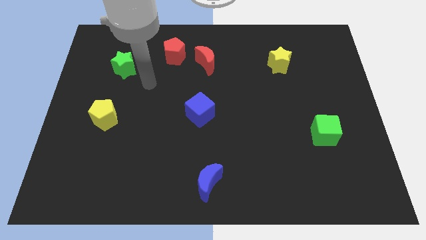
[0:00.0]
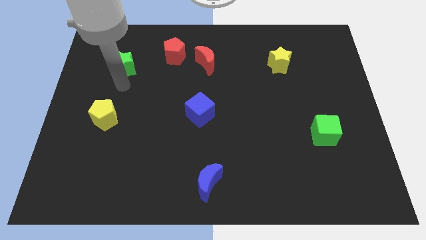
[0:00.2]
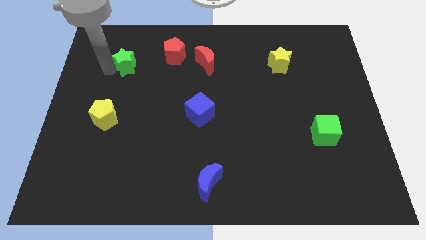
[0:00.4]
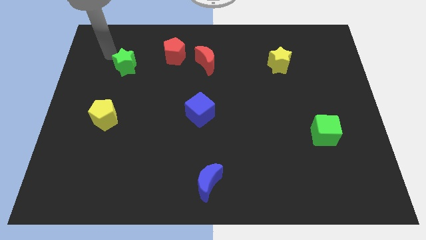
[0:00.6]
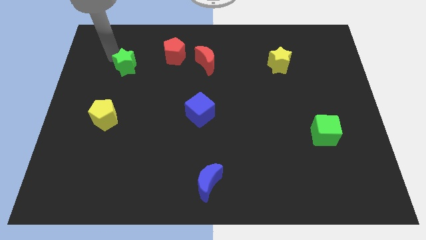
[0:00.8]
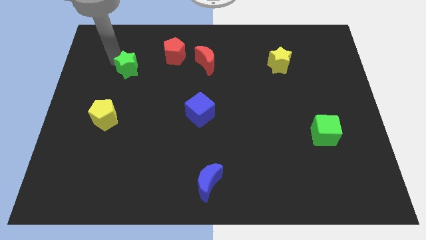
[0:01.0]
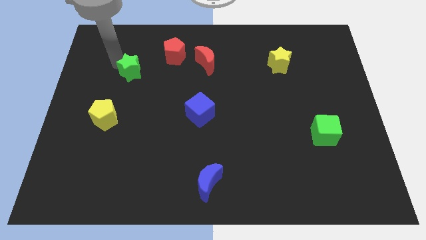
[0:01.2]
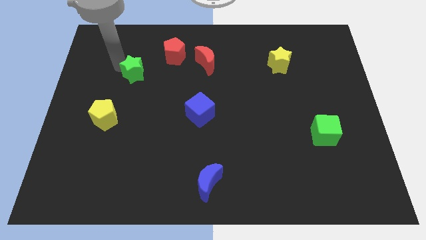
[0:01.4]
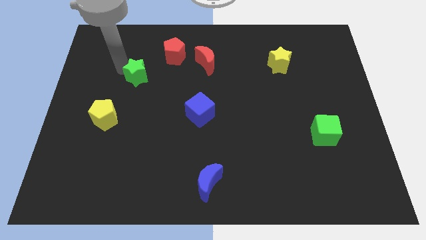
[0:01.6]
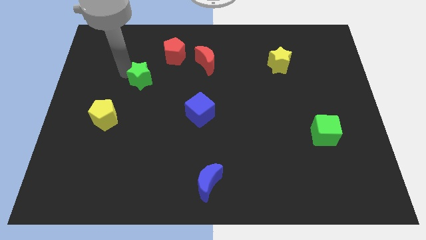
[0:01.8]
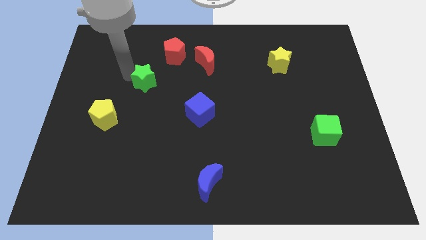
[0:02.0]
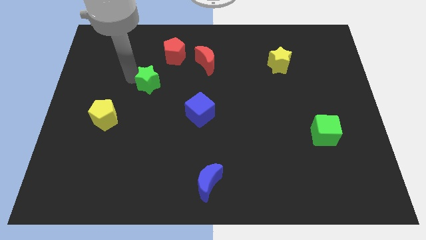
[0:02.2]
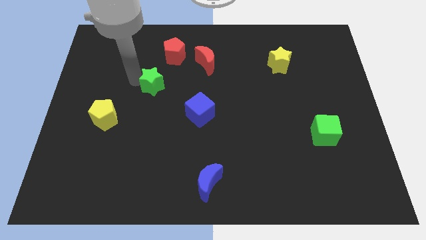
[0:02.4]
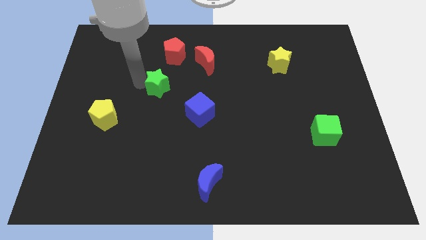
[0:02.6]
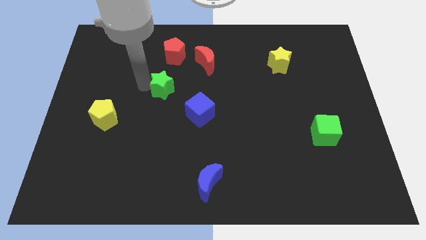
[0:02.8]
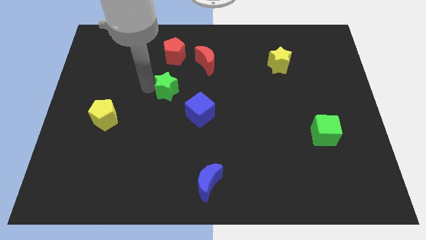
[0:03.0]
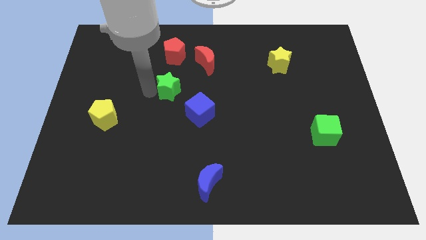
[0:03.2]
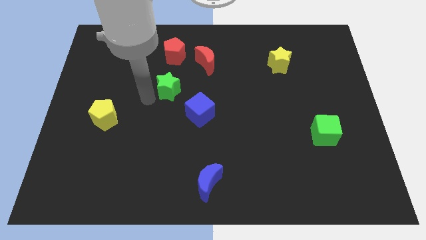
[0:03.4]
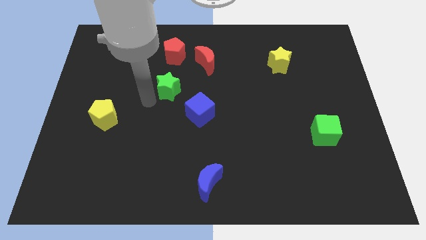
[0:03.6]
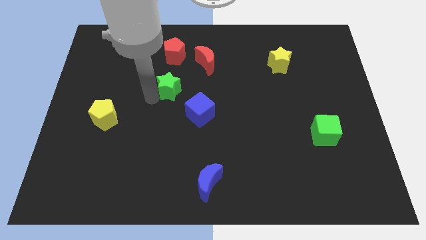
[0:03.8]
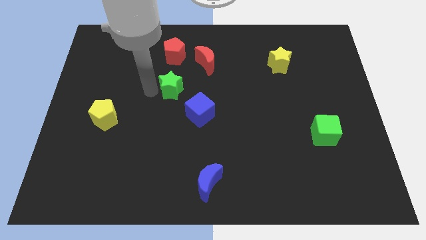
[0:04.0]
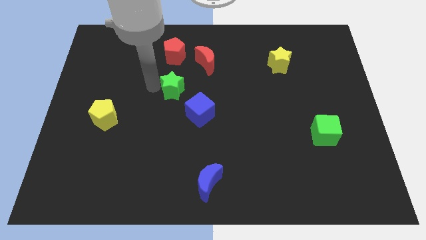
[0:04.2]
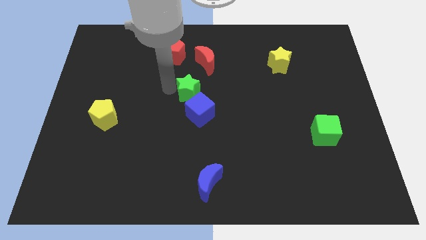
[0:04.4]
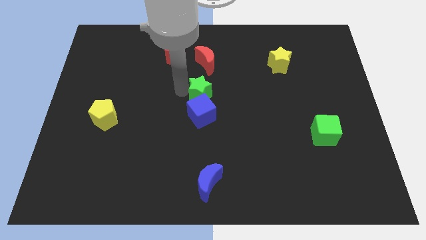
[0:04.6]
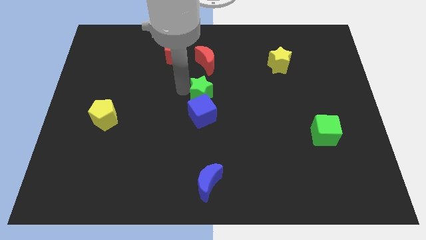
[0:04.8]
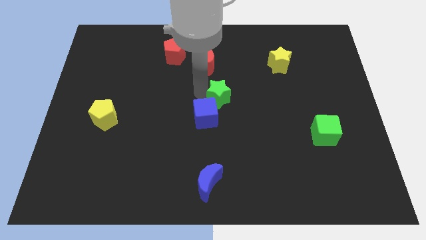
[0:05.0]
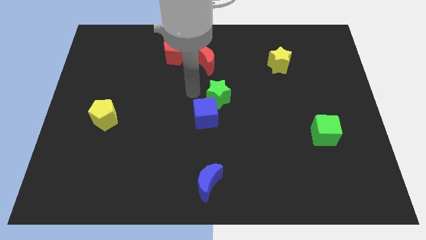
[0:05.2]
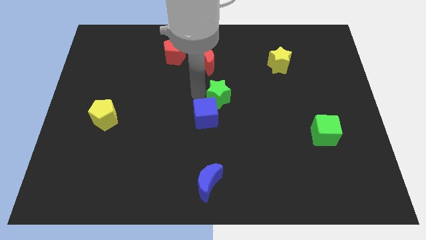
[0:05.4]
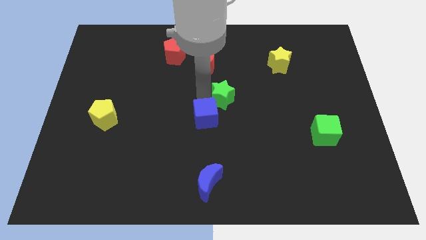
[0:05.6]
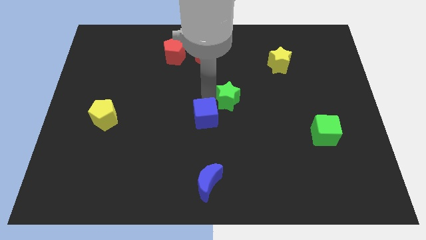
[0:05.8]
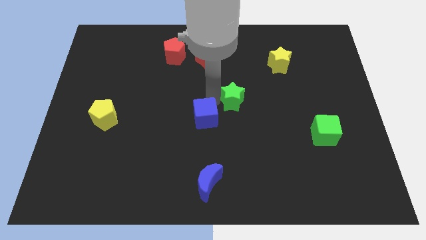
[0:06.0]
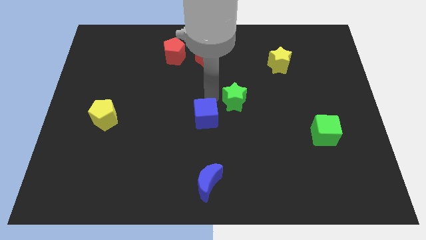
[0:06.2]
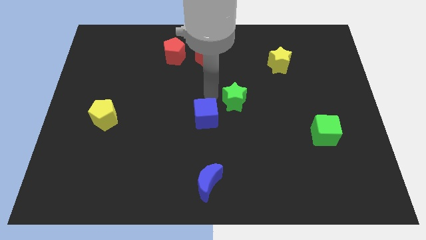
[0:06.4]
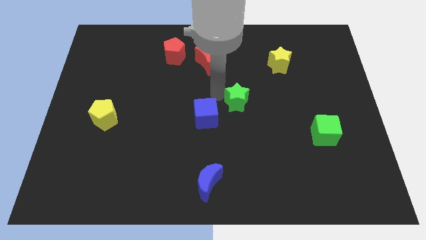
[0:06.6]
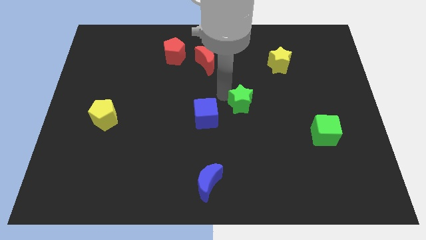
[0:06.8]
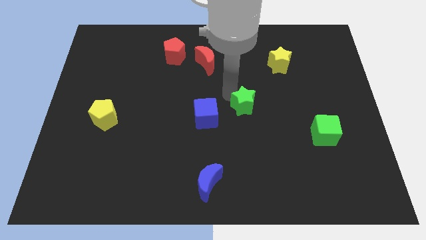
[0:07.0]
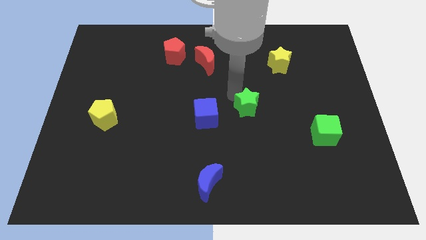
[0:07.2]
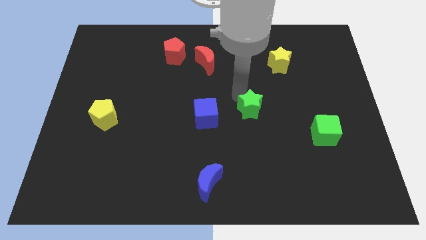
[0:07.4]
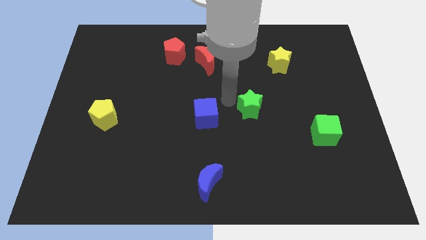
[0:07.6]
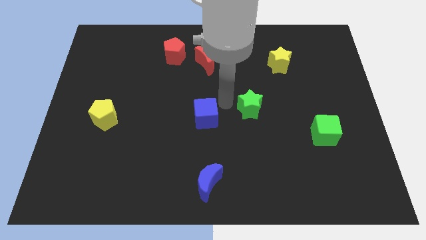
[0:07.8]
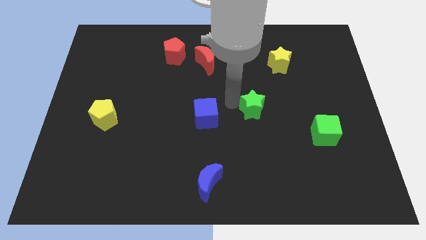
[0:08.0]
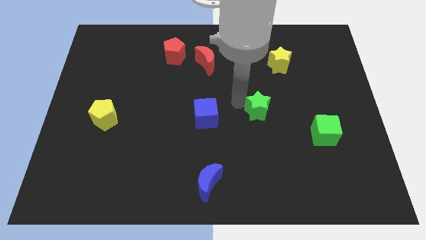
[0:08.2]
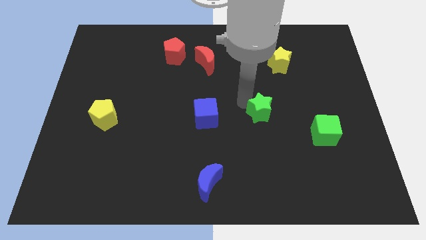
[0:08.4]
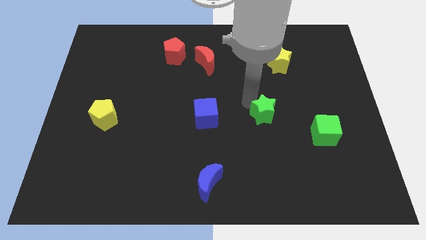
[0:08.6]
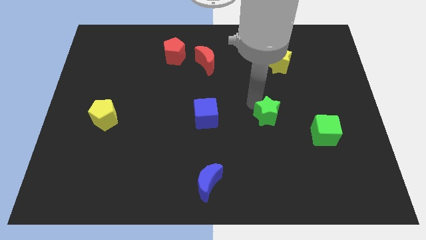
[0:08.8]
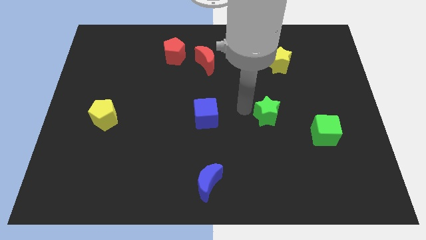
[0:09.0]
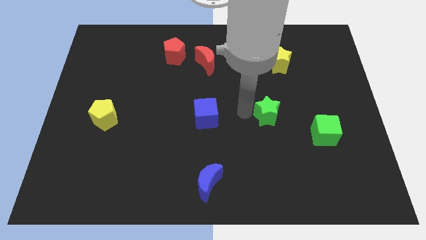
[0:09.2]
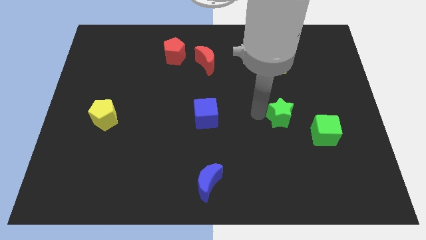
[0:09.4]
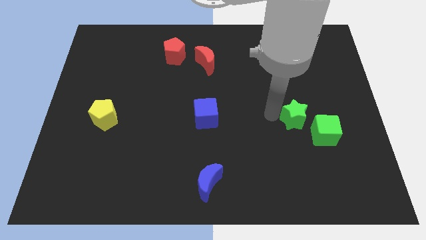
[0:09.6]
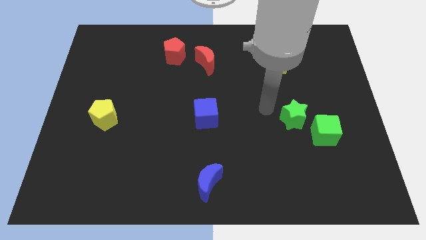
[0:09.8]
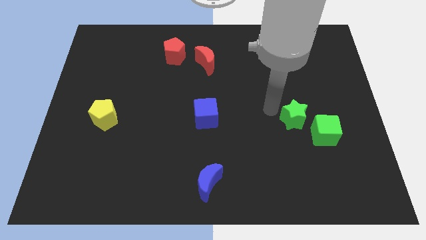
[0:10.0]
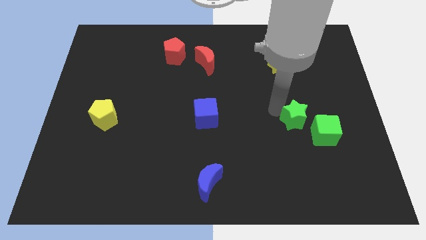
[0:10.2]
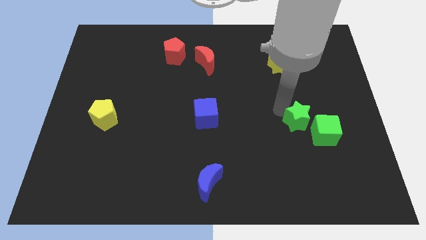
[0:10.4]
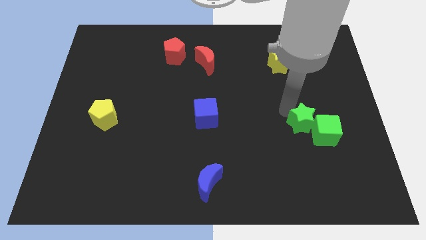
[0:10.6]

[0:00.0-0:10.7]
move the green star towards the green cube

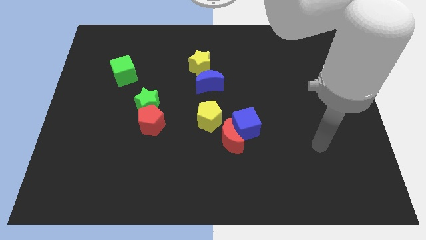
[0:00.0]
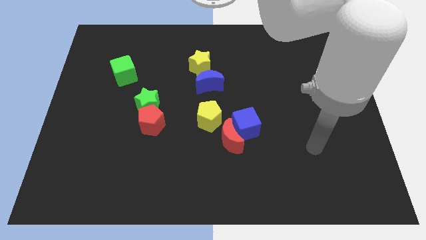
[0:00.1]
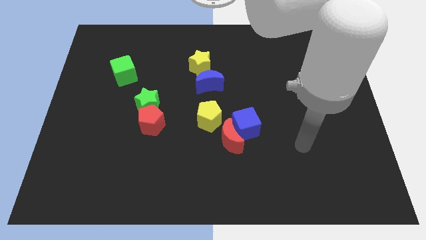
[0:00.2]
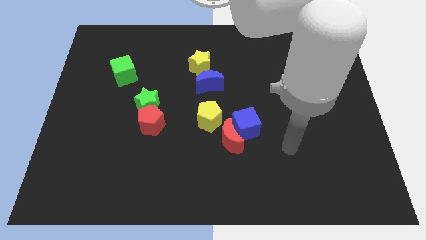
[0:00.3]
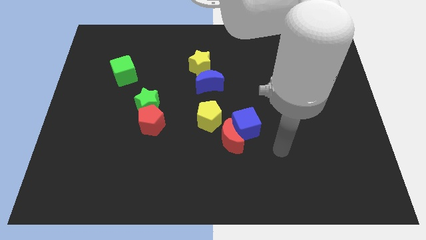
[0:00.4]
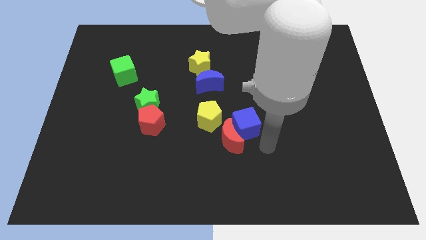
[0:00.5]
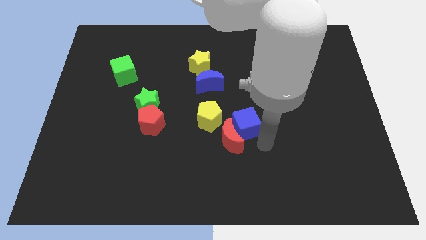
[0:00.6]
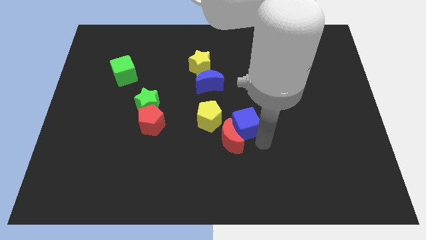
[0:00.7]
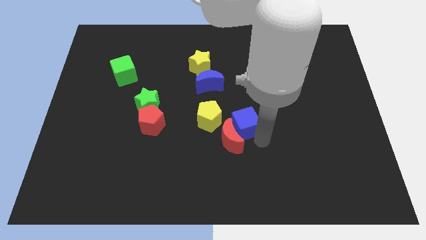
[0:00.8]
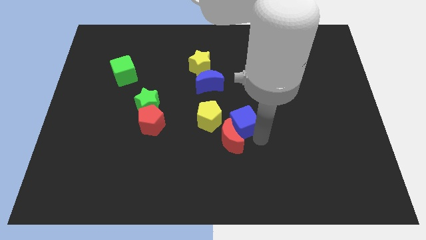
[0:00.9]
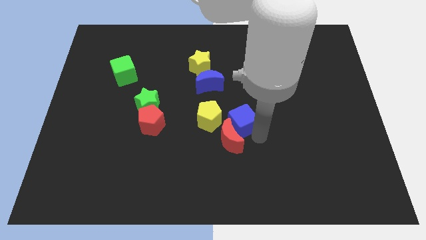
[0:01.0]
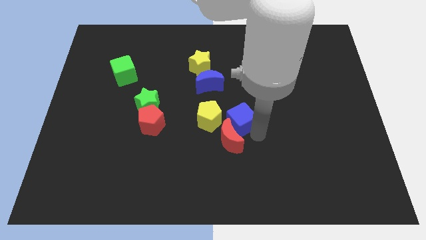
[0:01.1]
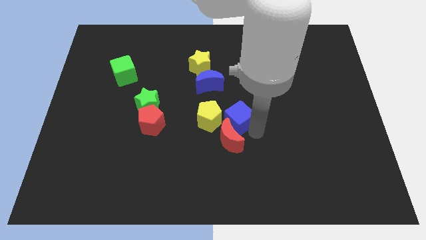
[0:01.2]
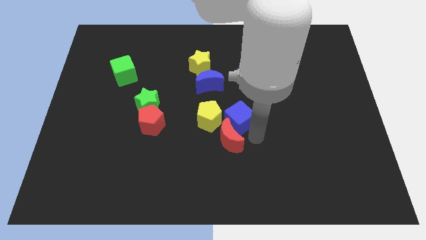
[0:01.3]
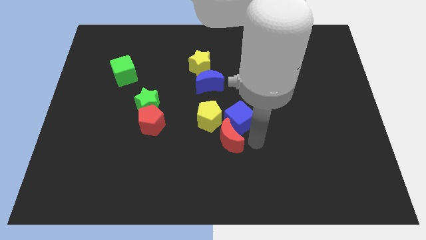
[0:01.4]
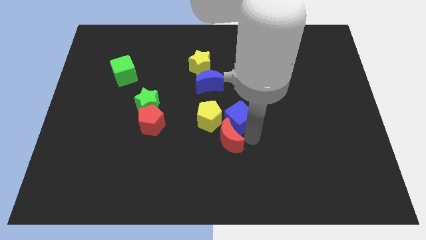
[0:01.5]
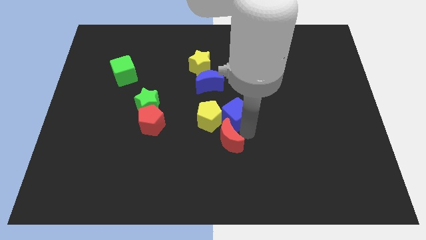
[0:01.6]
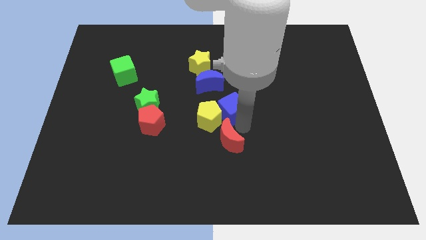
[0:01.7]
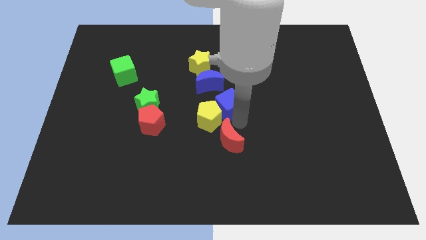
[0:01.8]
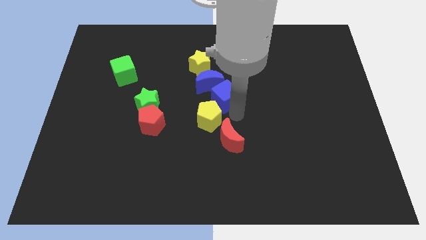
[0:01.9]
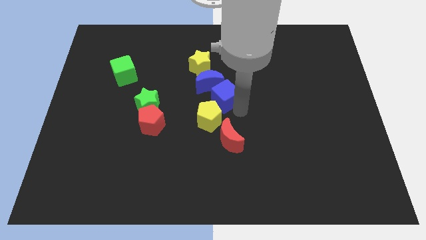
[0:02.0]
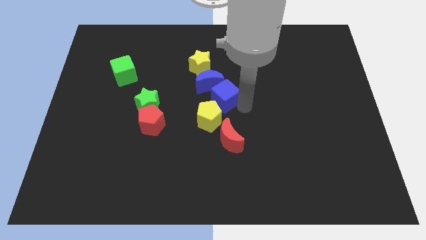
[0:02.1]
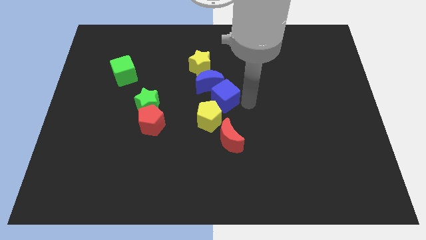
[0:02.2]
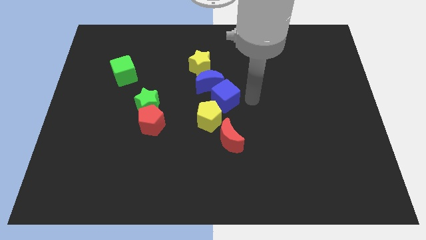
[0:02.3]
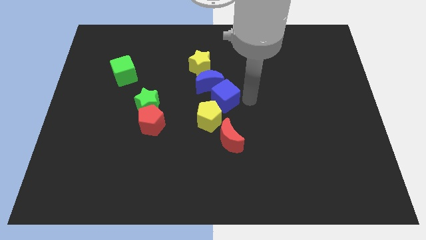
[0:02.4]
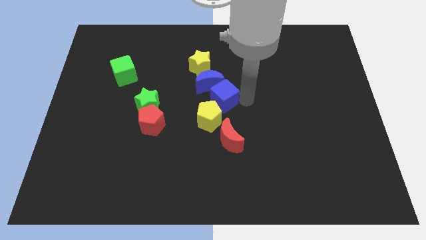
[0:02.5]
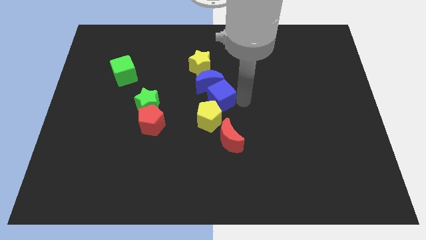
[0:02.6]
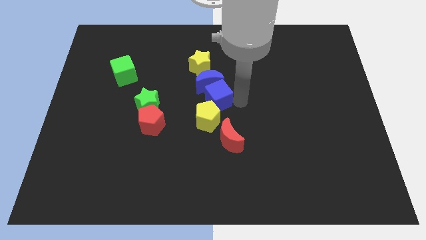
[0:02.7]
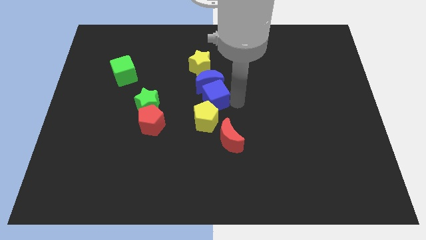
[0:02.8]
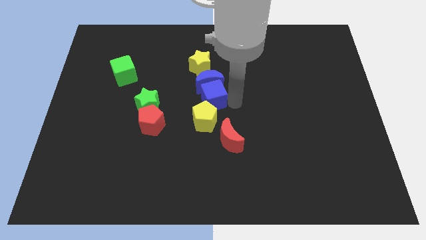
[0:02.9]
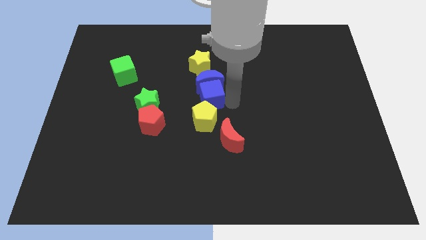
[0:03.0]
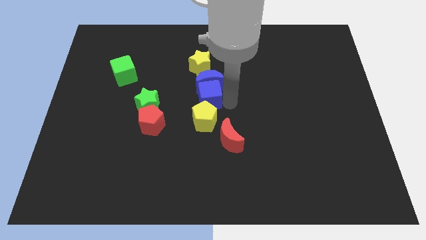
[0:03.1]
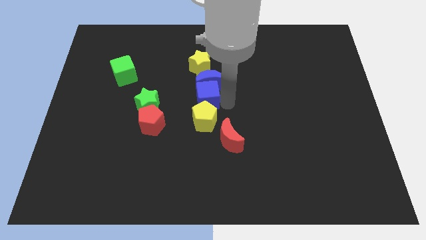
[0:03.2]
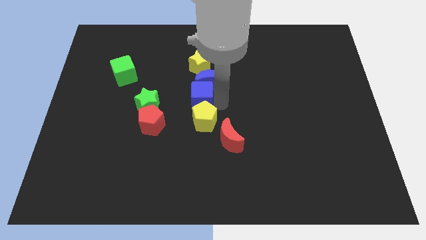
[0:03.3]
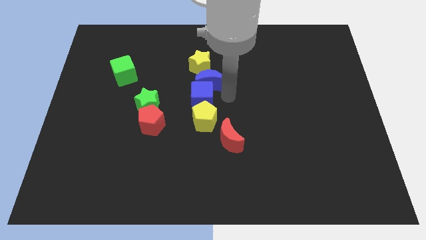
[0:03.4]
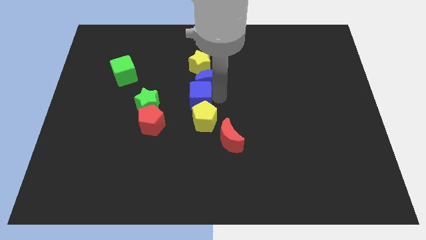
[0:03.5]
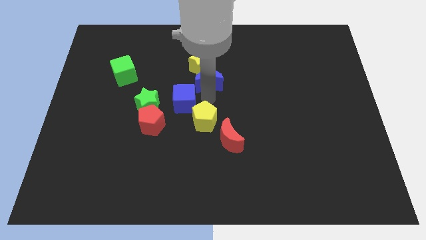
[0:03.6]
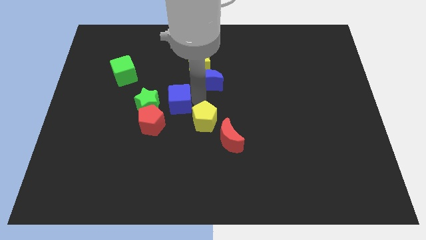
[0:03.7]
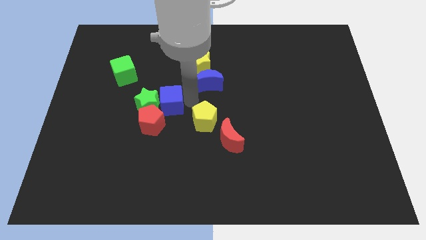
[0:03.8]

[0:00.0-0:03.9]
push the blue cube close to the green star
